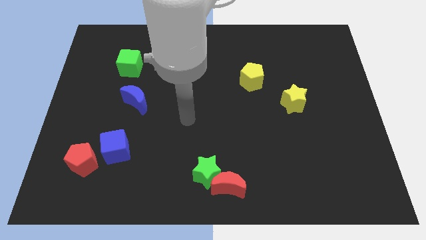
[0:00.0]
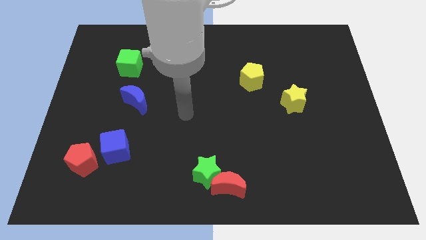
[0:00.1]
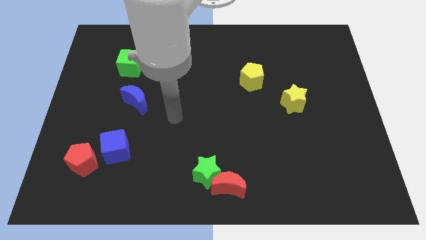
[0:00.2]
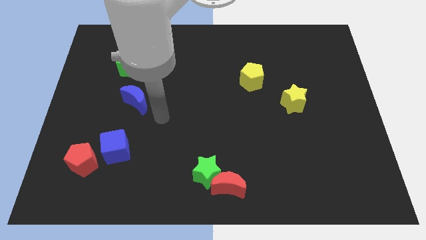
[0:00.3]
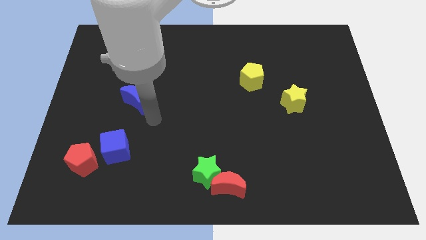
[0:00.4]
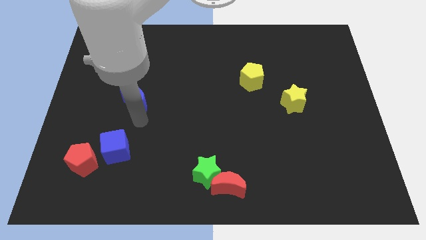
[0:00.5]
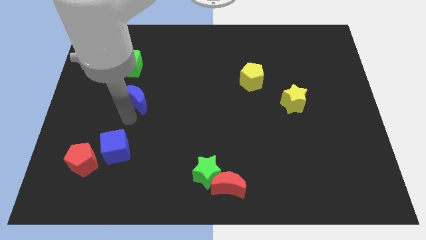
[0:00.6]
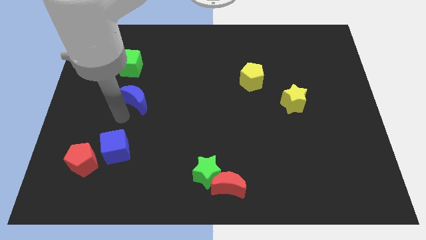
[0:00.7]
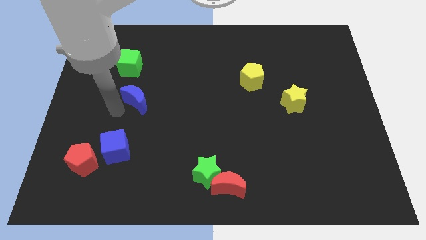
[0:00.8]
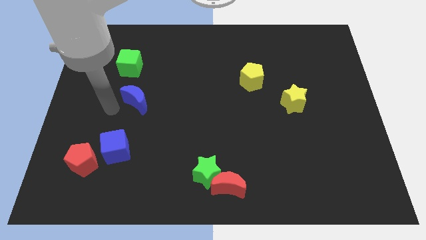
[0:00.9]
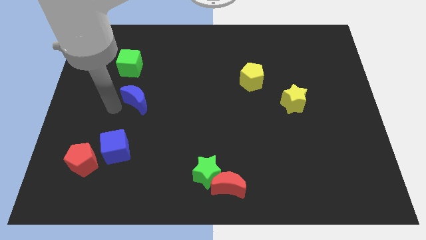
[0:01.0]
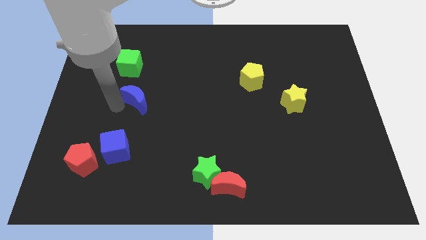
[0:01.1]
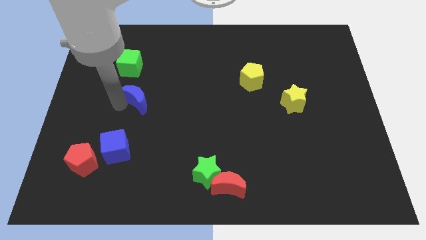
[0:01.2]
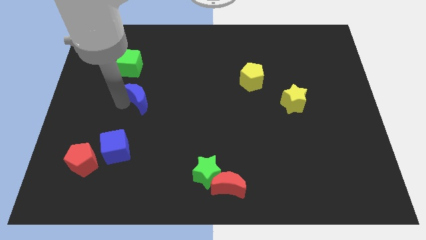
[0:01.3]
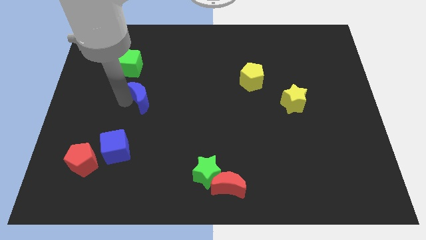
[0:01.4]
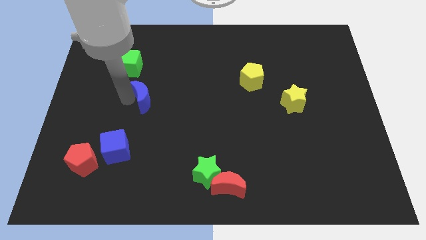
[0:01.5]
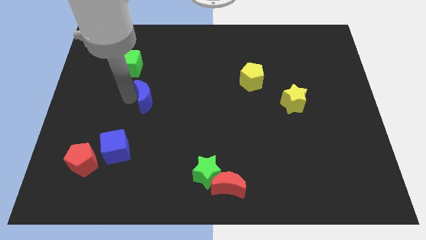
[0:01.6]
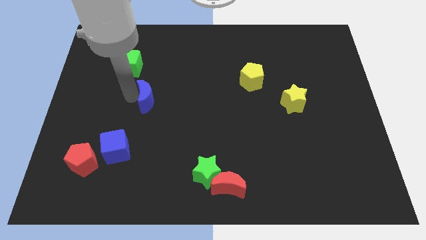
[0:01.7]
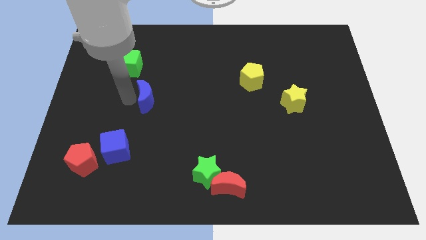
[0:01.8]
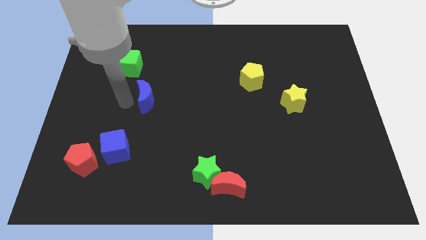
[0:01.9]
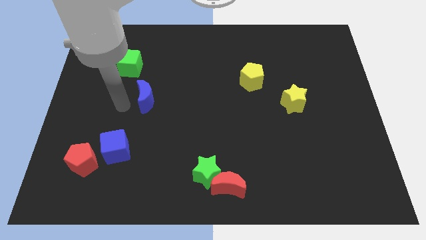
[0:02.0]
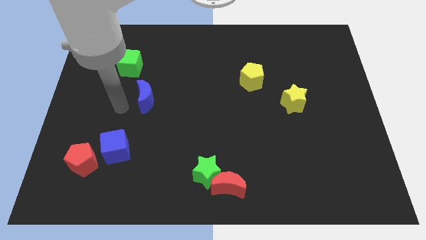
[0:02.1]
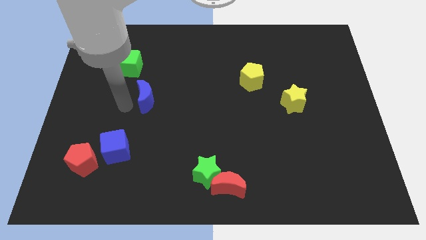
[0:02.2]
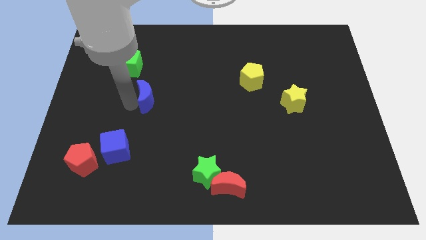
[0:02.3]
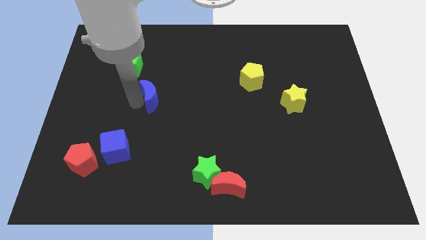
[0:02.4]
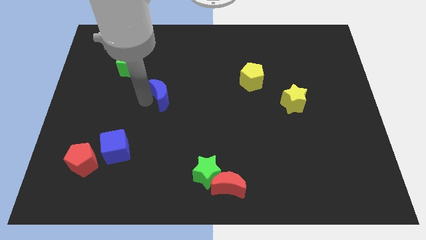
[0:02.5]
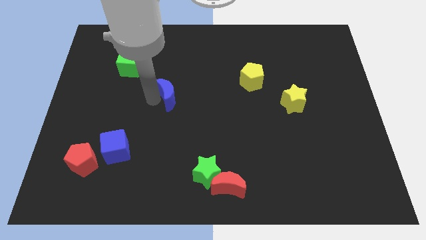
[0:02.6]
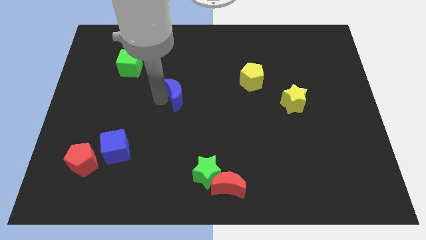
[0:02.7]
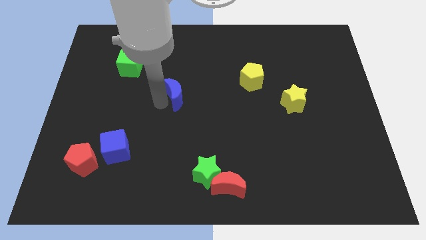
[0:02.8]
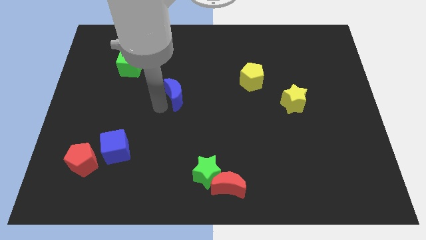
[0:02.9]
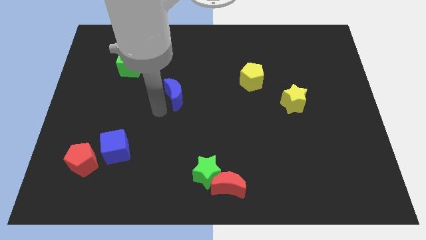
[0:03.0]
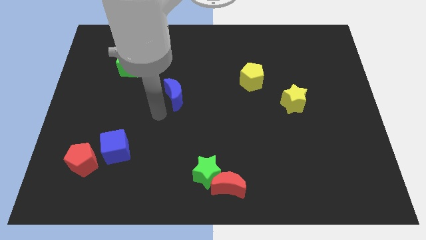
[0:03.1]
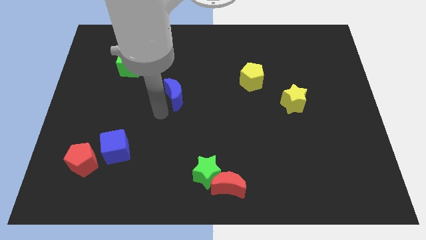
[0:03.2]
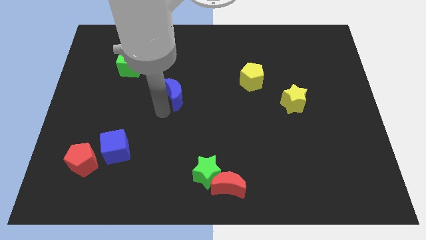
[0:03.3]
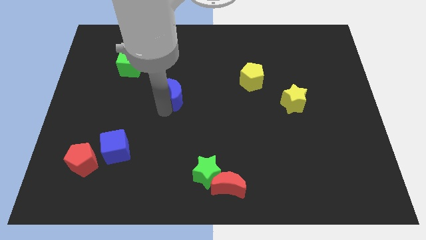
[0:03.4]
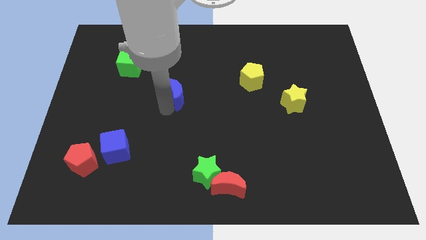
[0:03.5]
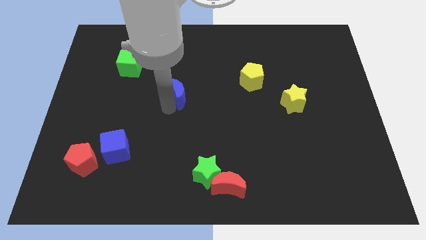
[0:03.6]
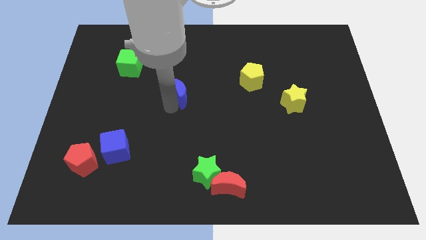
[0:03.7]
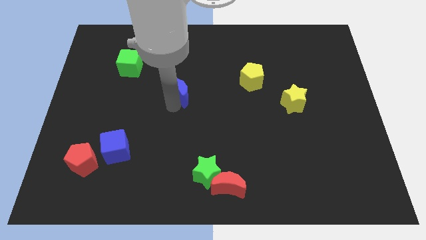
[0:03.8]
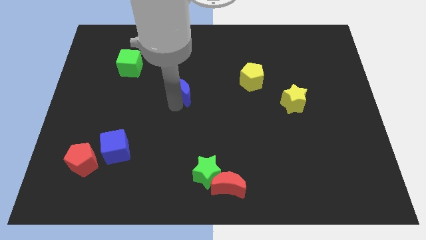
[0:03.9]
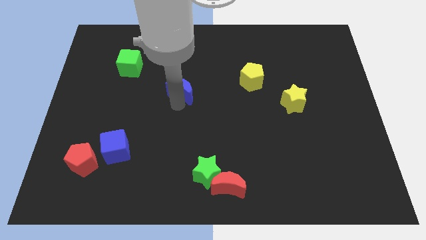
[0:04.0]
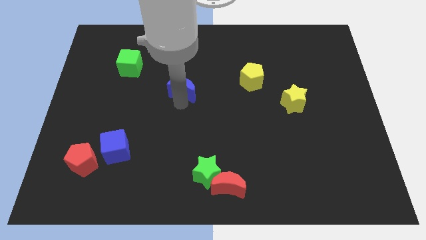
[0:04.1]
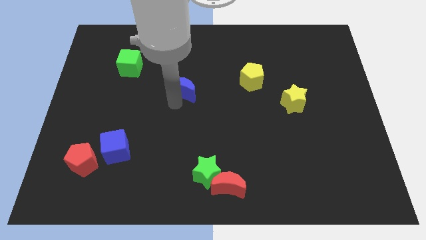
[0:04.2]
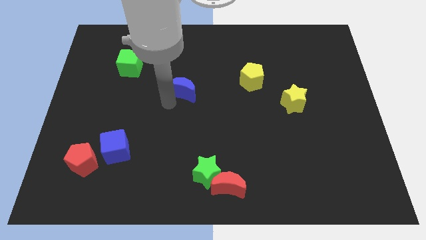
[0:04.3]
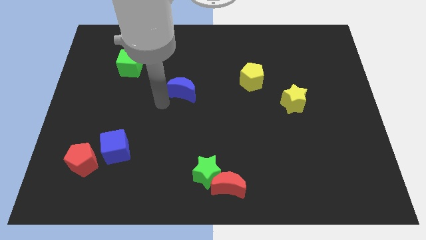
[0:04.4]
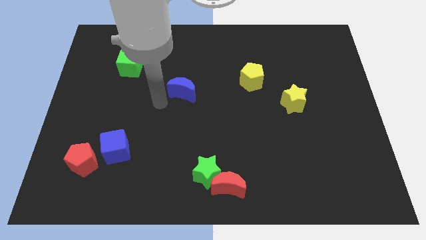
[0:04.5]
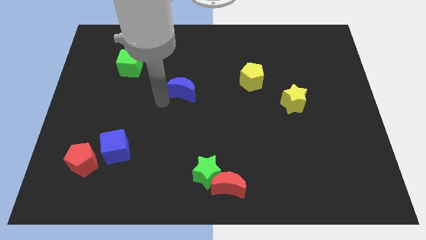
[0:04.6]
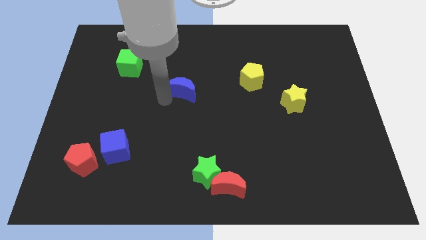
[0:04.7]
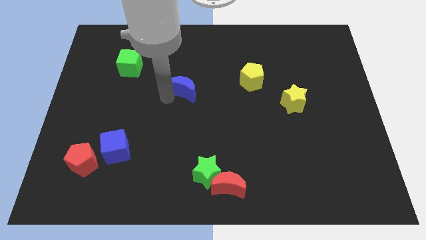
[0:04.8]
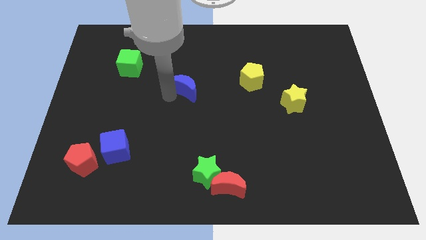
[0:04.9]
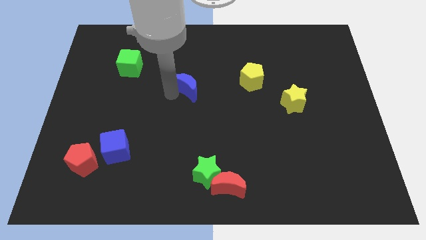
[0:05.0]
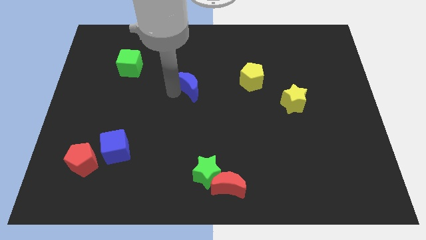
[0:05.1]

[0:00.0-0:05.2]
slide the blue moon to the left of the yellow pentagon

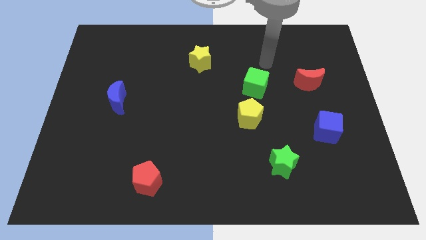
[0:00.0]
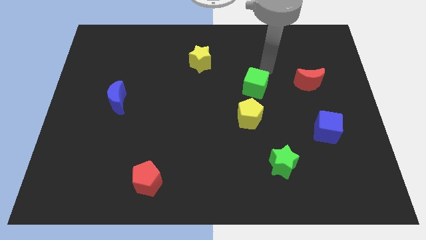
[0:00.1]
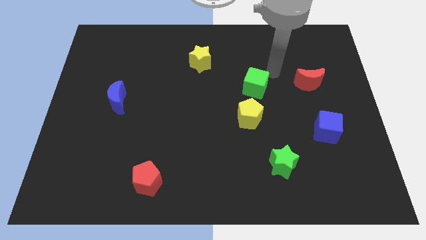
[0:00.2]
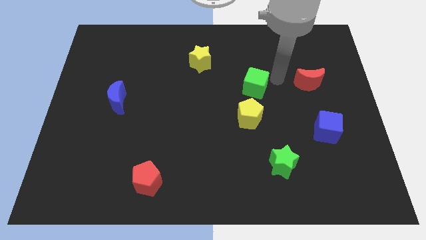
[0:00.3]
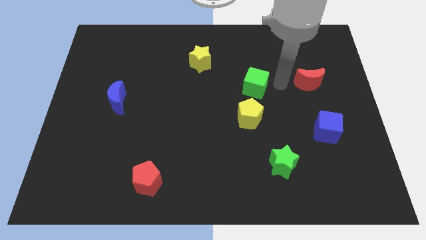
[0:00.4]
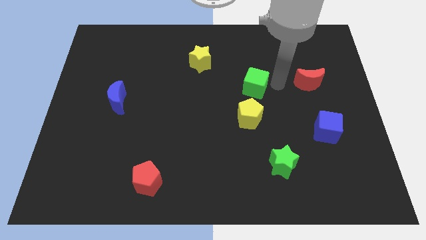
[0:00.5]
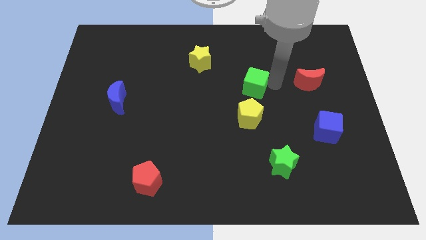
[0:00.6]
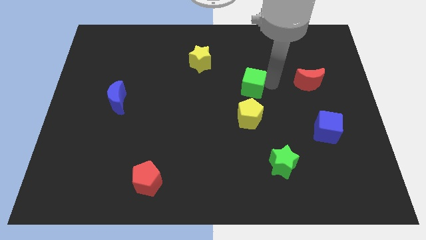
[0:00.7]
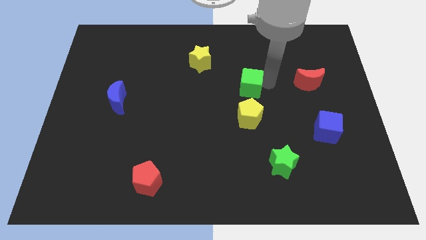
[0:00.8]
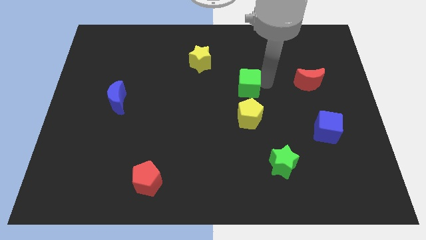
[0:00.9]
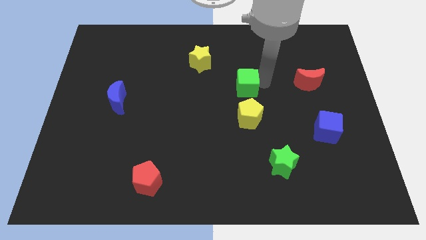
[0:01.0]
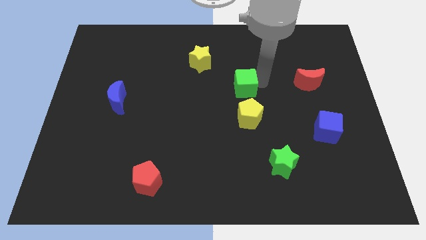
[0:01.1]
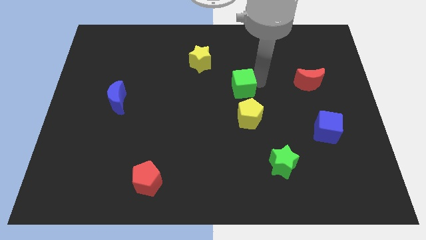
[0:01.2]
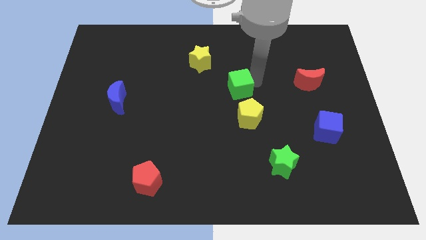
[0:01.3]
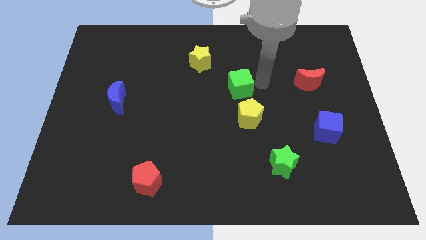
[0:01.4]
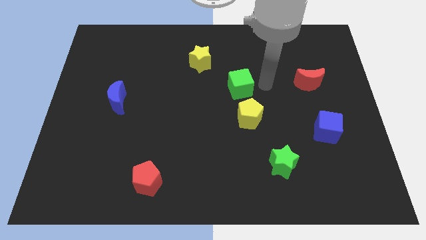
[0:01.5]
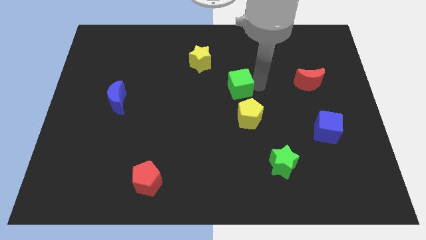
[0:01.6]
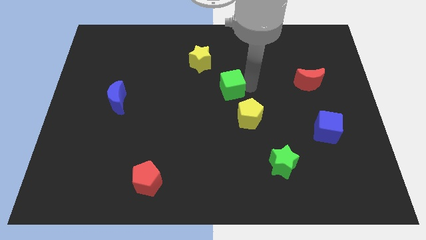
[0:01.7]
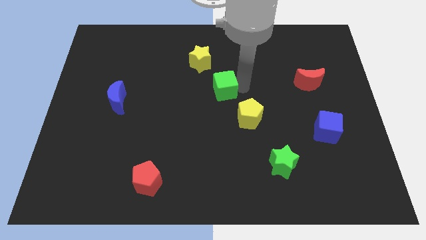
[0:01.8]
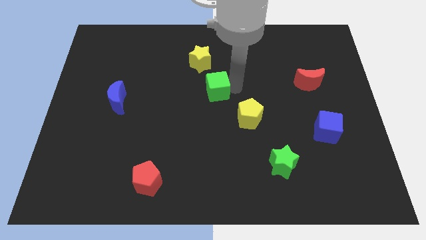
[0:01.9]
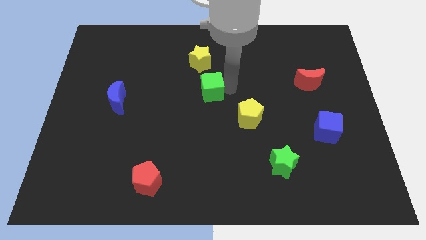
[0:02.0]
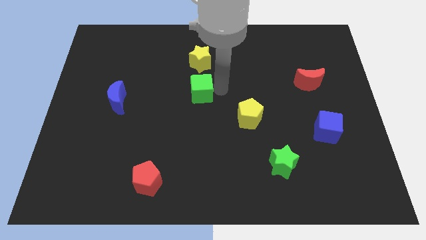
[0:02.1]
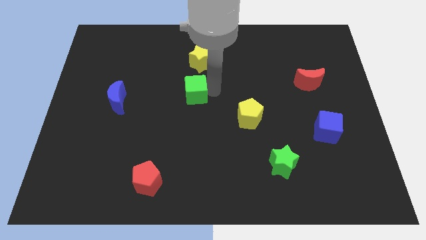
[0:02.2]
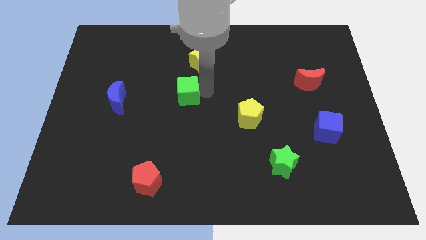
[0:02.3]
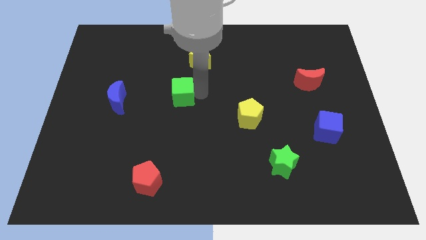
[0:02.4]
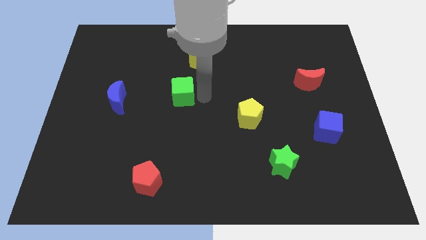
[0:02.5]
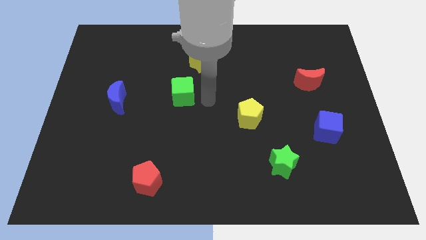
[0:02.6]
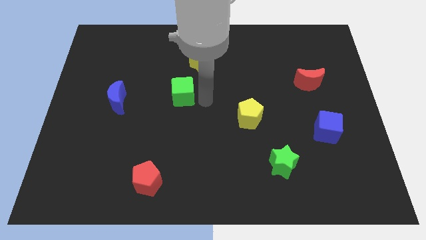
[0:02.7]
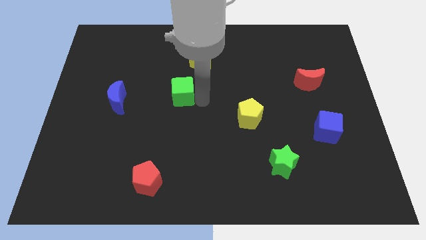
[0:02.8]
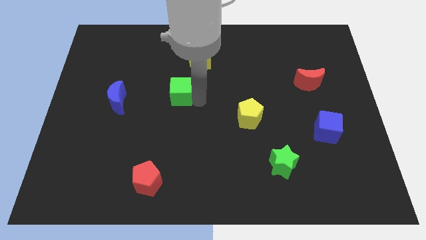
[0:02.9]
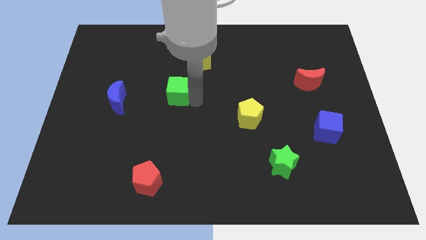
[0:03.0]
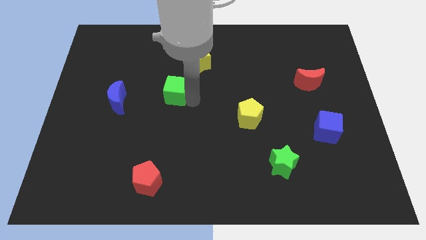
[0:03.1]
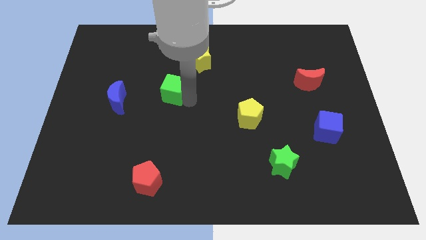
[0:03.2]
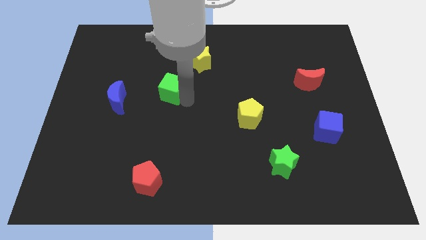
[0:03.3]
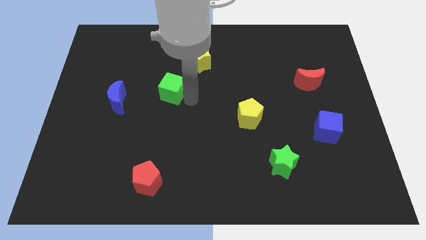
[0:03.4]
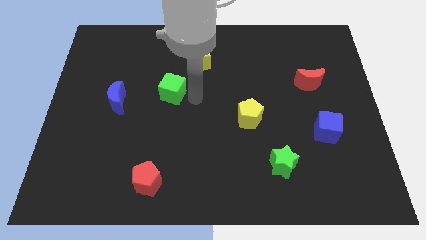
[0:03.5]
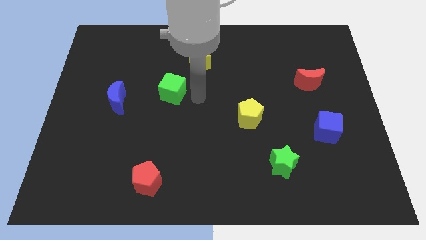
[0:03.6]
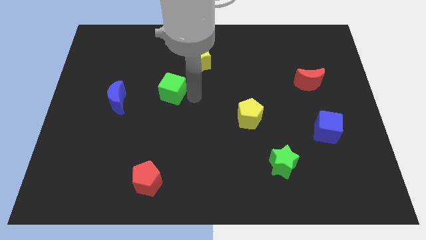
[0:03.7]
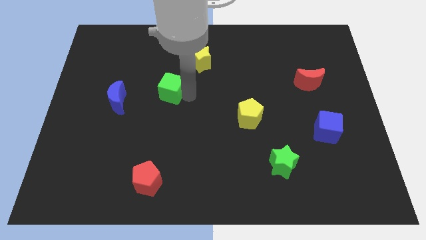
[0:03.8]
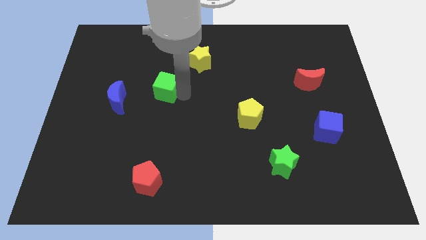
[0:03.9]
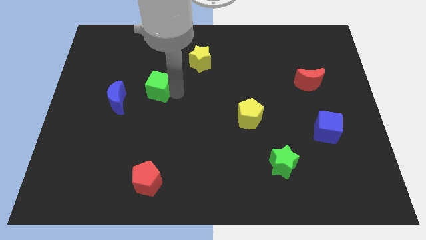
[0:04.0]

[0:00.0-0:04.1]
move the green cube to the top right of the blue moon
